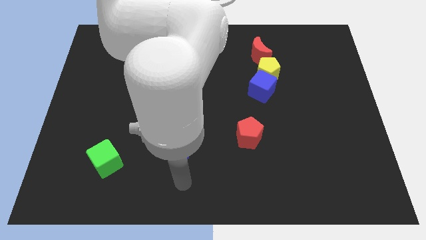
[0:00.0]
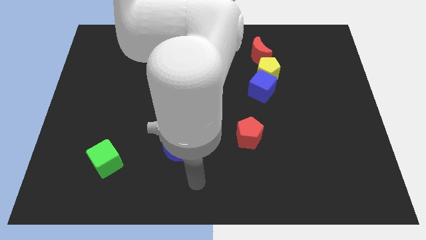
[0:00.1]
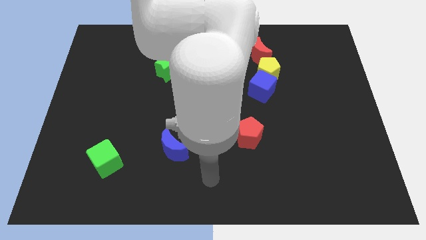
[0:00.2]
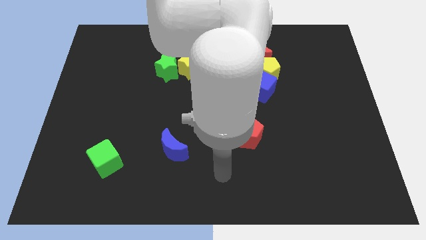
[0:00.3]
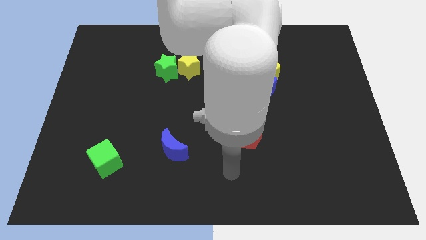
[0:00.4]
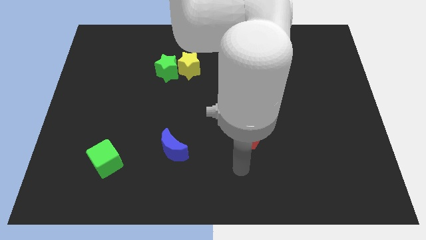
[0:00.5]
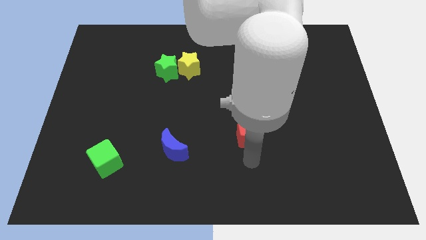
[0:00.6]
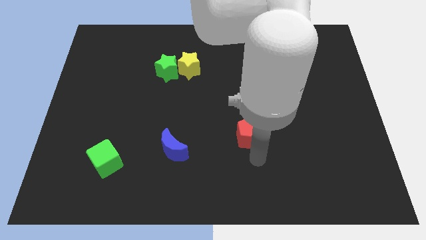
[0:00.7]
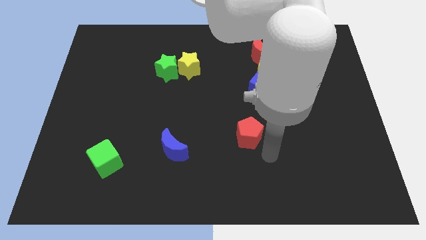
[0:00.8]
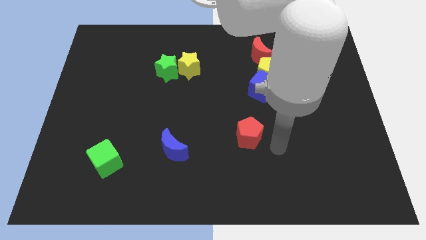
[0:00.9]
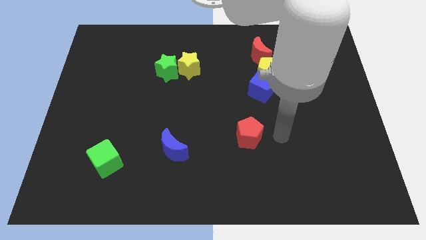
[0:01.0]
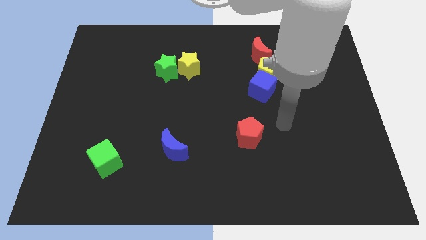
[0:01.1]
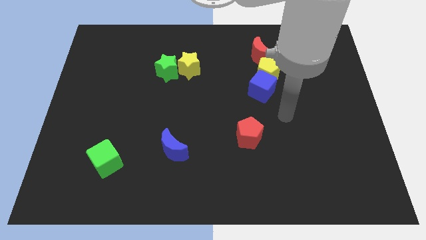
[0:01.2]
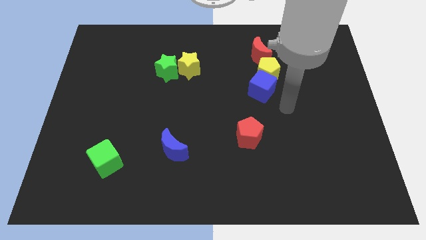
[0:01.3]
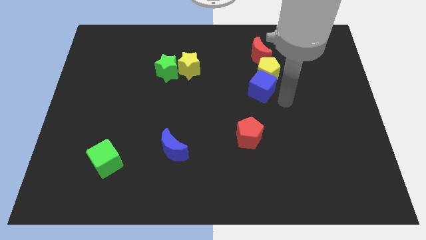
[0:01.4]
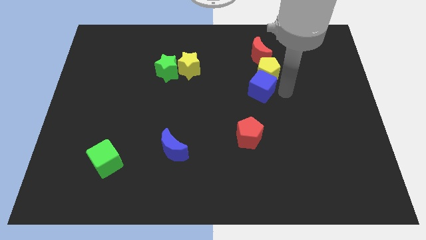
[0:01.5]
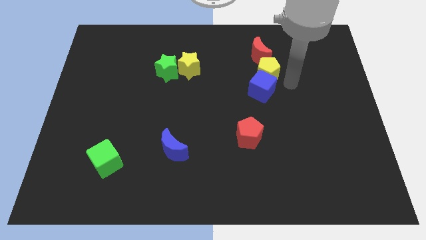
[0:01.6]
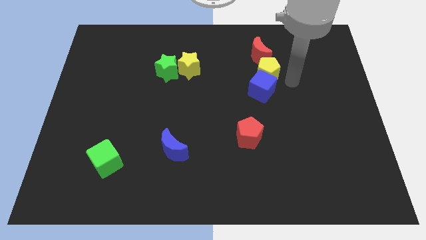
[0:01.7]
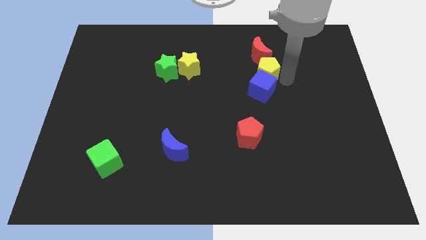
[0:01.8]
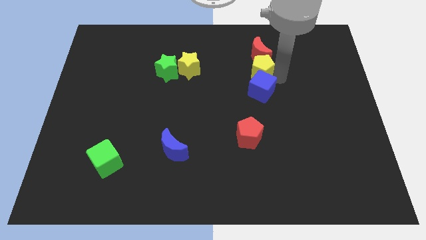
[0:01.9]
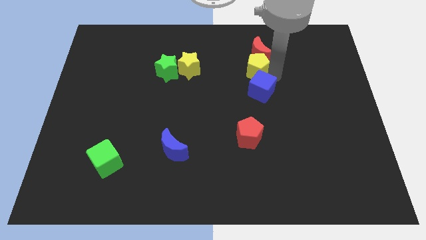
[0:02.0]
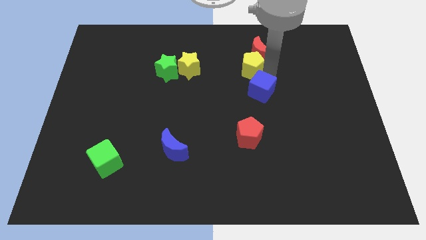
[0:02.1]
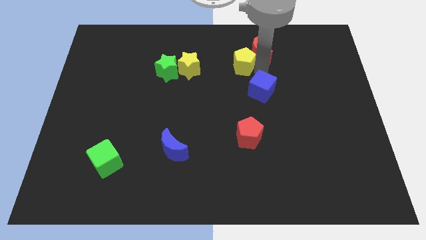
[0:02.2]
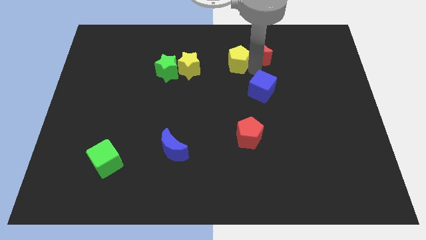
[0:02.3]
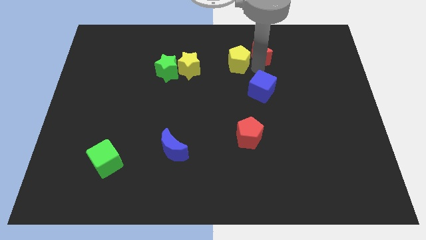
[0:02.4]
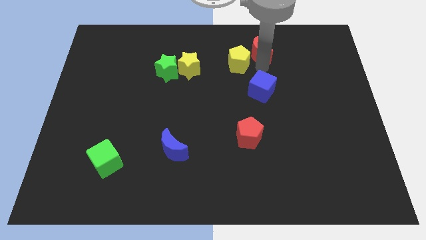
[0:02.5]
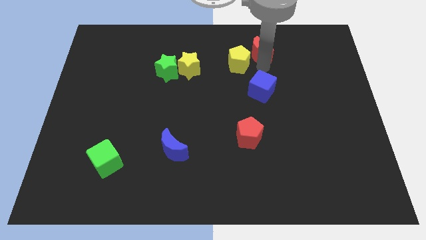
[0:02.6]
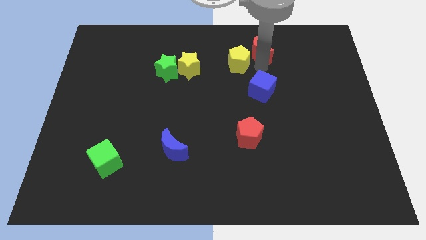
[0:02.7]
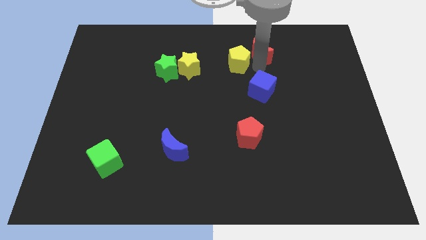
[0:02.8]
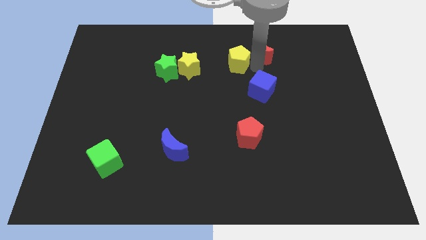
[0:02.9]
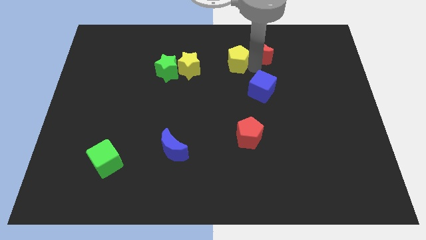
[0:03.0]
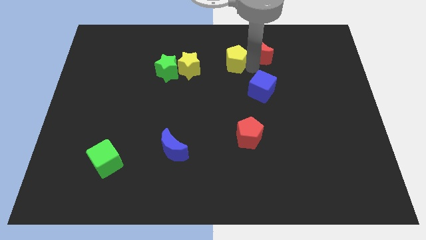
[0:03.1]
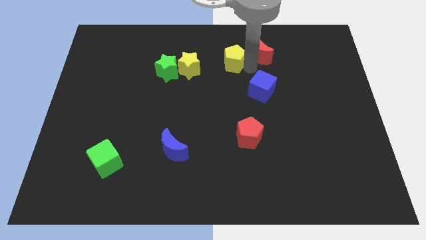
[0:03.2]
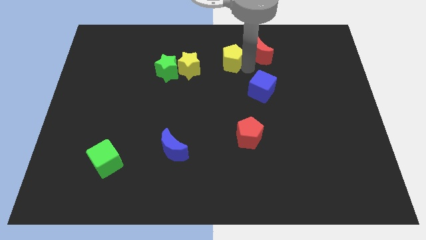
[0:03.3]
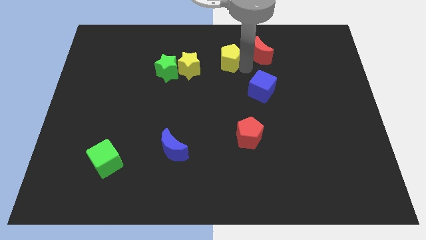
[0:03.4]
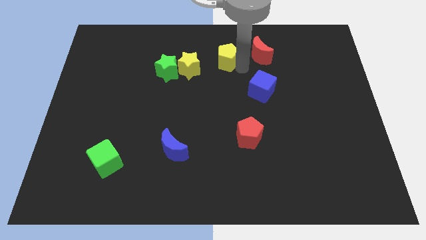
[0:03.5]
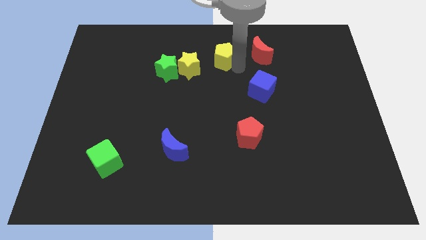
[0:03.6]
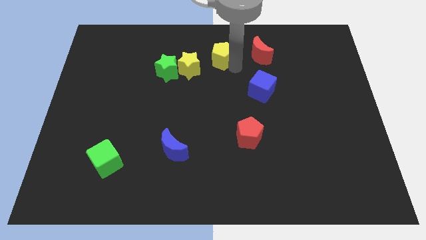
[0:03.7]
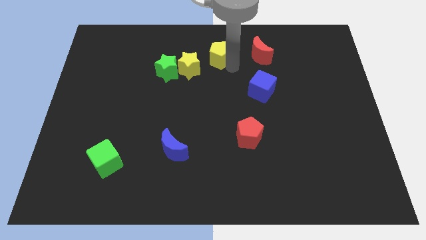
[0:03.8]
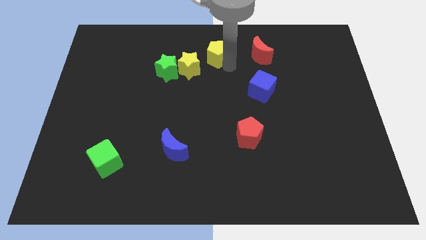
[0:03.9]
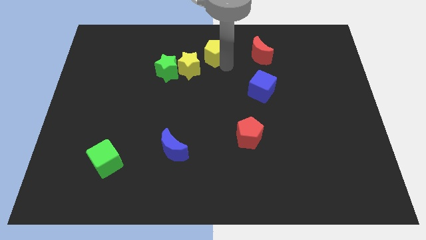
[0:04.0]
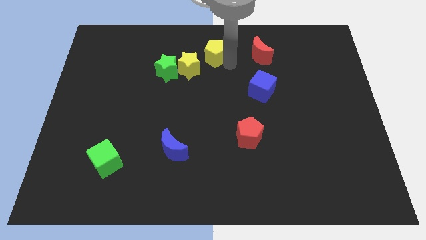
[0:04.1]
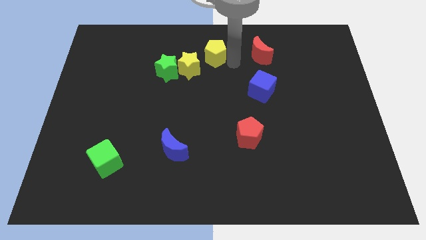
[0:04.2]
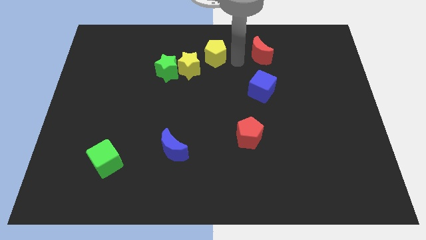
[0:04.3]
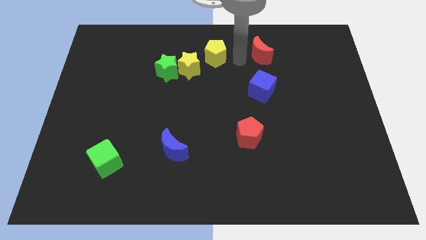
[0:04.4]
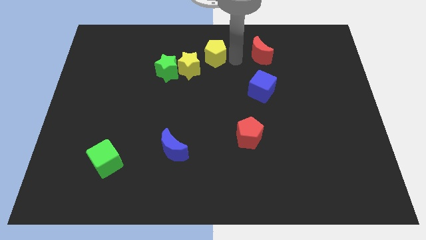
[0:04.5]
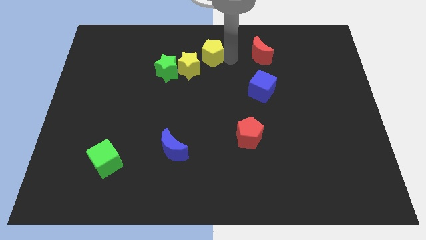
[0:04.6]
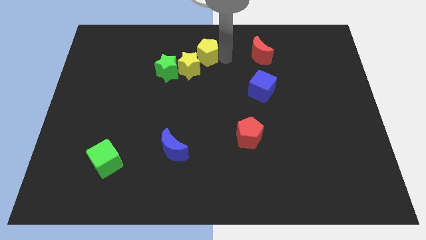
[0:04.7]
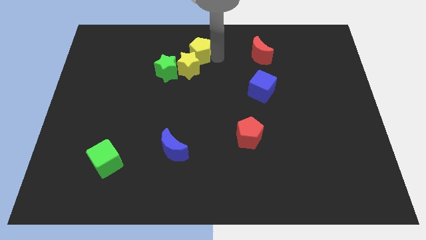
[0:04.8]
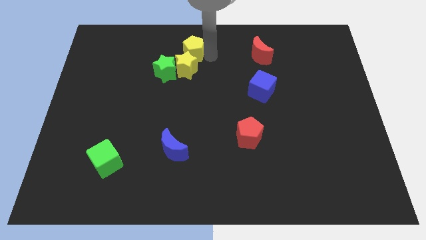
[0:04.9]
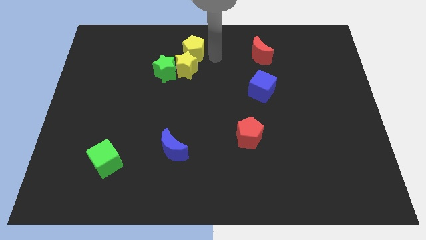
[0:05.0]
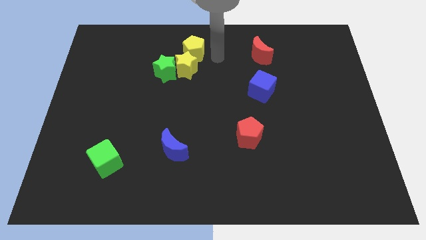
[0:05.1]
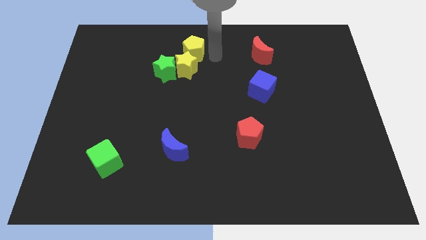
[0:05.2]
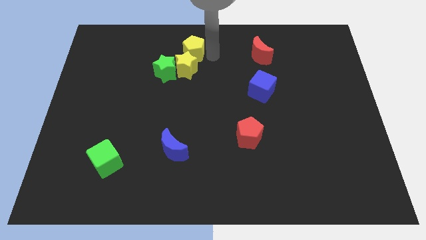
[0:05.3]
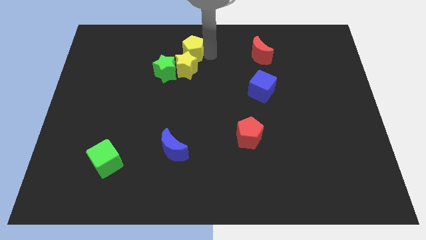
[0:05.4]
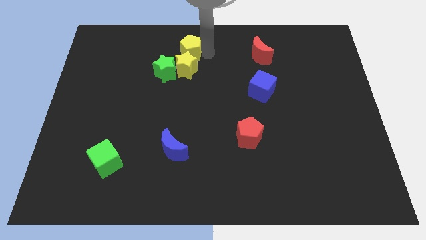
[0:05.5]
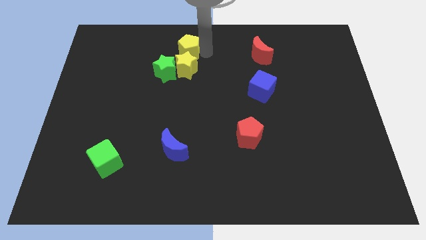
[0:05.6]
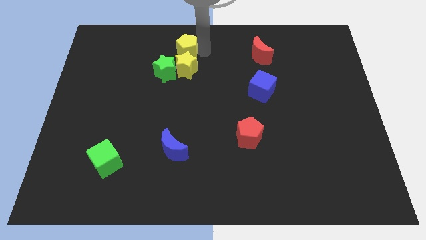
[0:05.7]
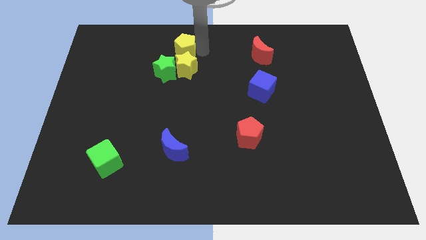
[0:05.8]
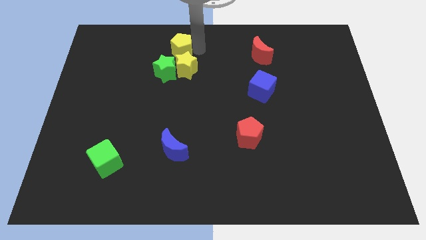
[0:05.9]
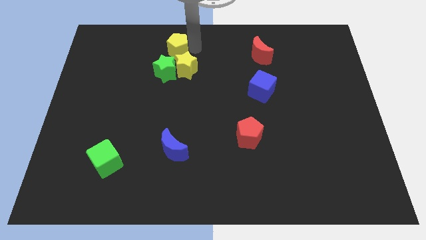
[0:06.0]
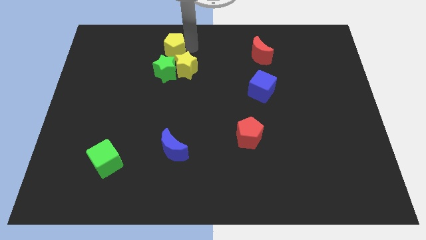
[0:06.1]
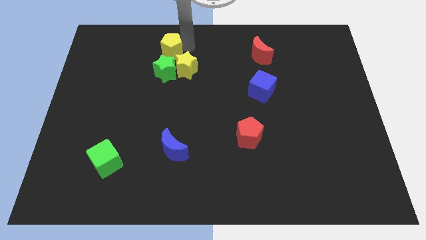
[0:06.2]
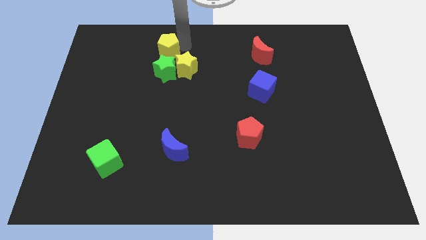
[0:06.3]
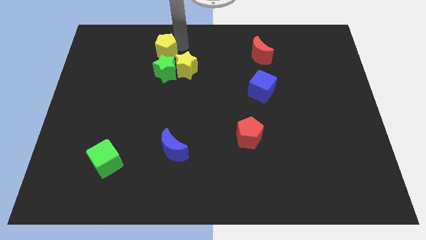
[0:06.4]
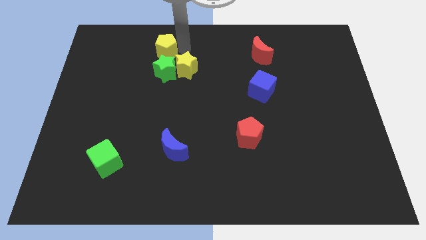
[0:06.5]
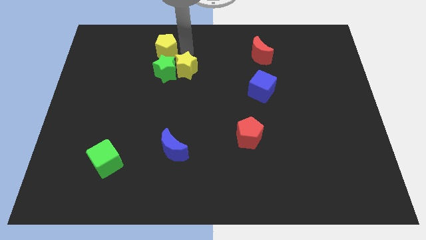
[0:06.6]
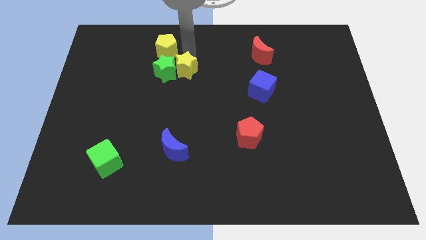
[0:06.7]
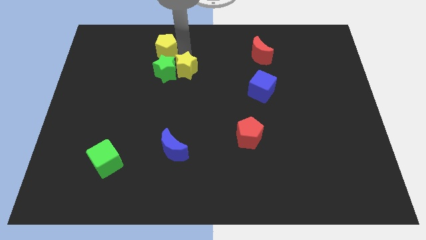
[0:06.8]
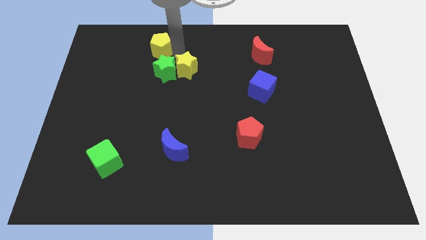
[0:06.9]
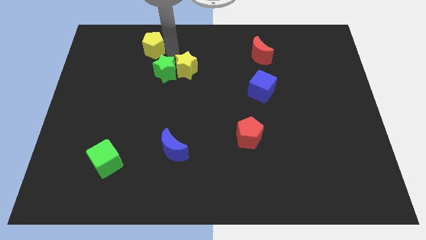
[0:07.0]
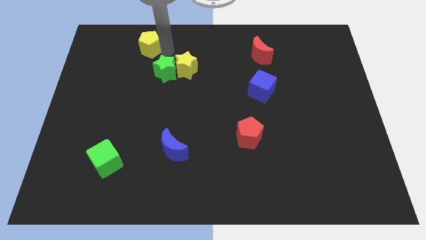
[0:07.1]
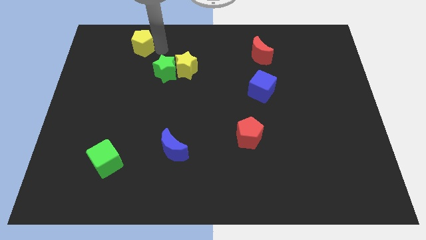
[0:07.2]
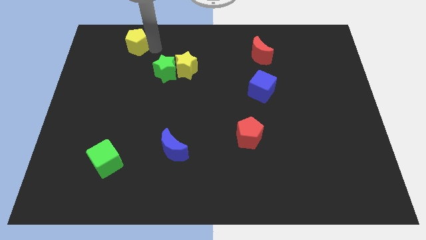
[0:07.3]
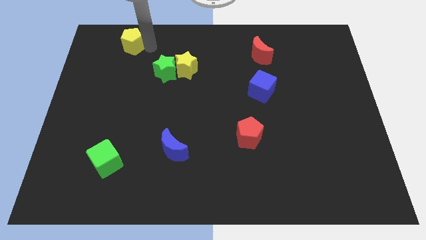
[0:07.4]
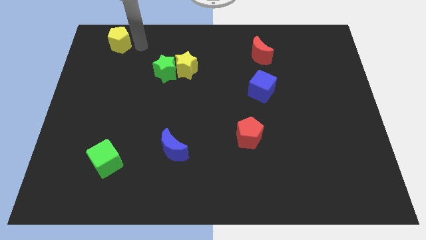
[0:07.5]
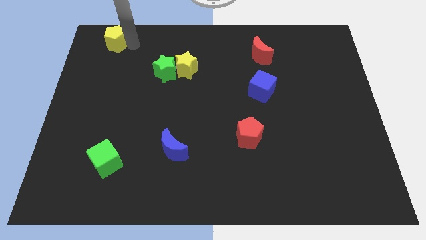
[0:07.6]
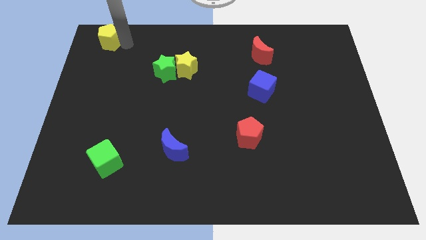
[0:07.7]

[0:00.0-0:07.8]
move the yellow pentagon to the top left corner
